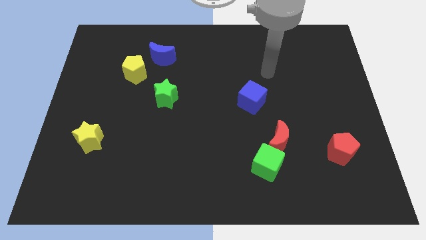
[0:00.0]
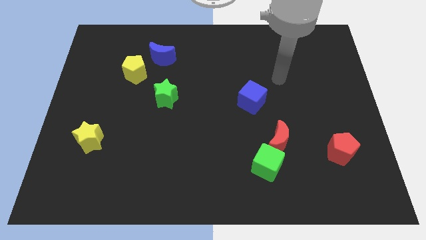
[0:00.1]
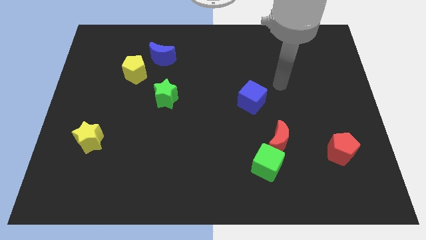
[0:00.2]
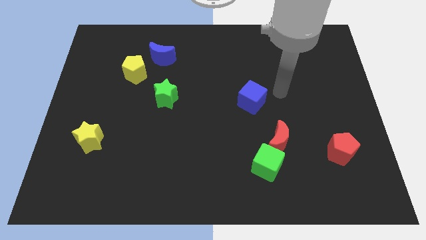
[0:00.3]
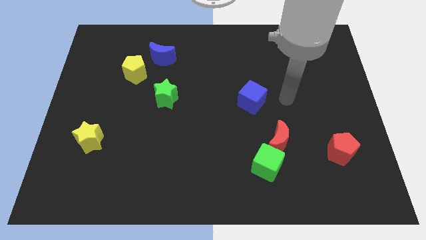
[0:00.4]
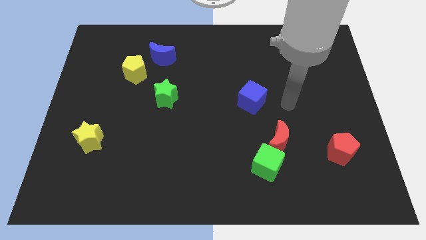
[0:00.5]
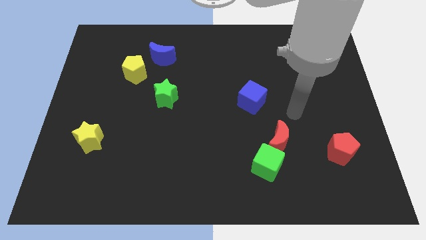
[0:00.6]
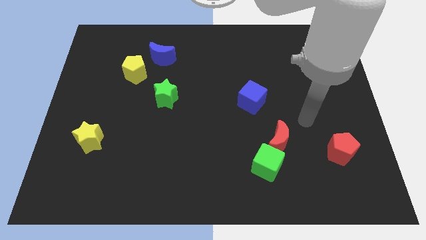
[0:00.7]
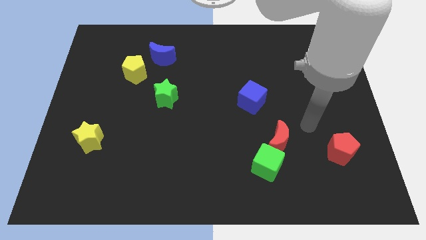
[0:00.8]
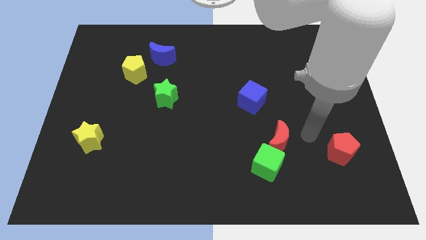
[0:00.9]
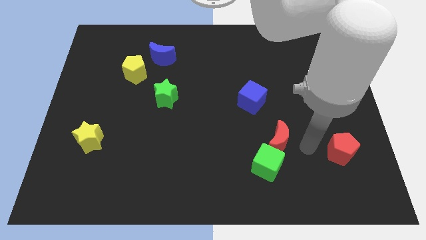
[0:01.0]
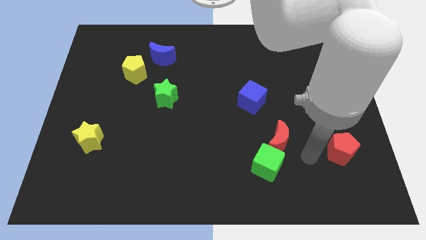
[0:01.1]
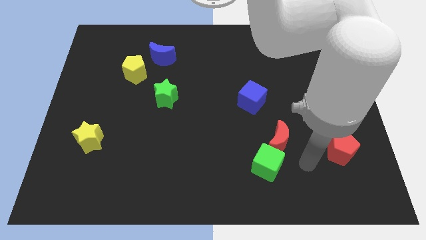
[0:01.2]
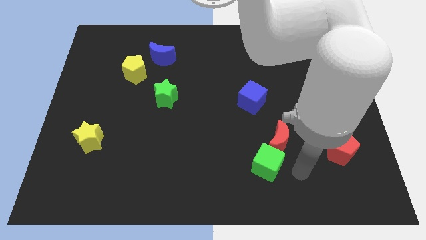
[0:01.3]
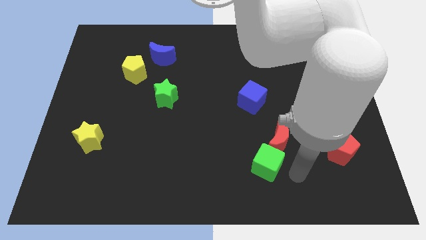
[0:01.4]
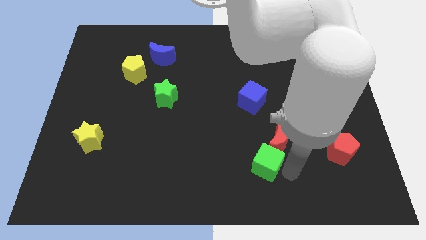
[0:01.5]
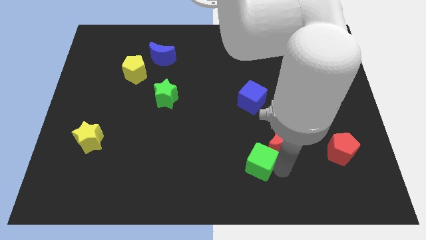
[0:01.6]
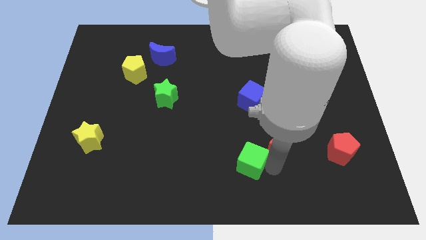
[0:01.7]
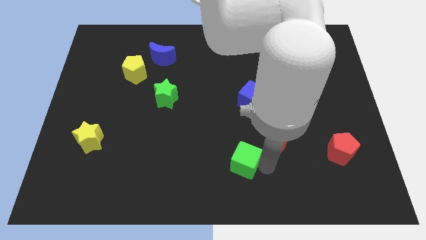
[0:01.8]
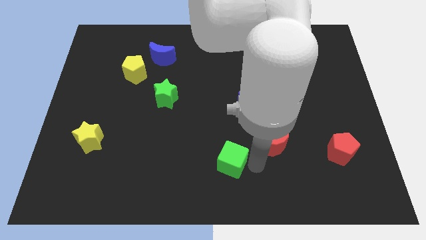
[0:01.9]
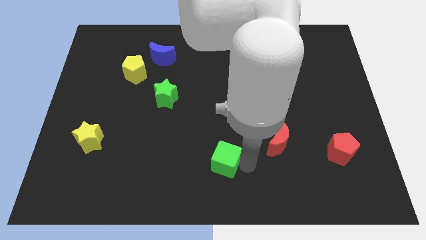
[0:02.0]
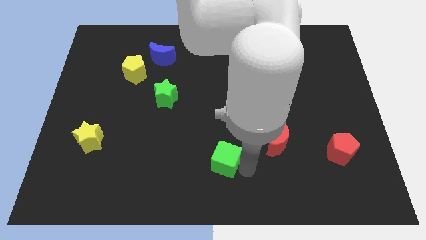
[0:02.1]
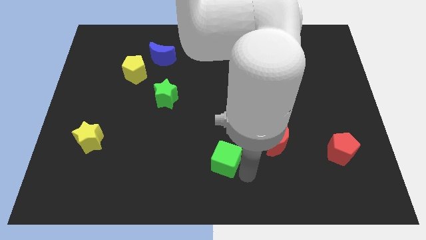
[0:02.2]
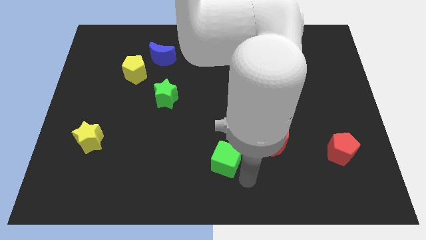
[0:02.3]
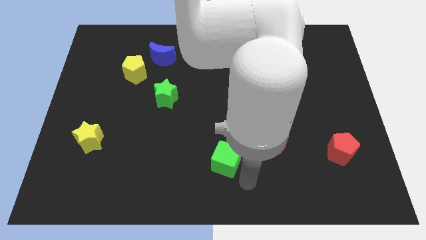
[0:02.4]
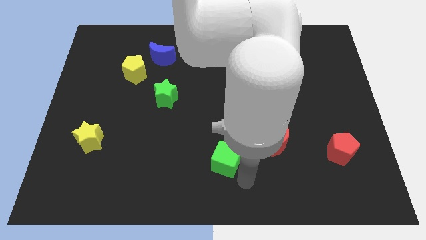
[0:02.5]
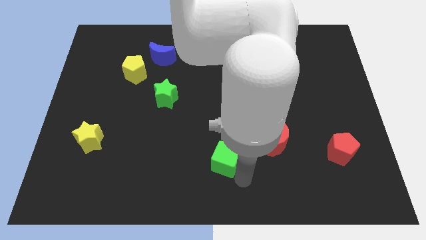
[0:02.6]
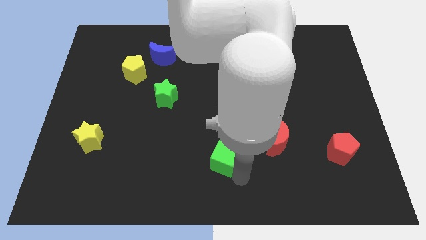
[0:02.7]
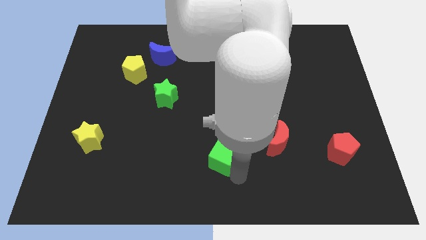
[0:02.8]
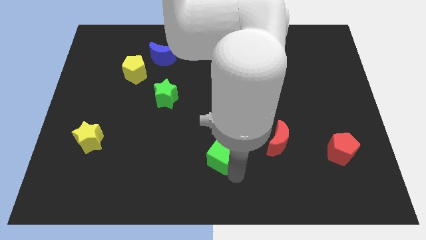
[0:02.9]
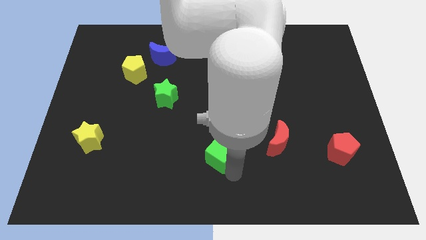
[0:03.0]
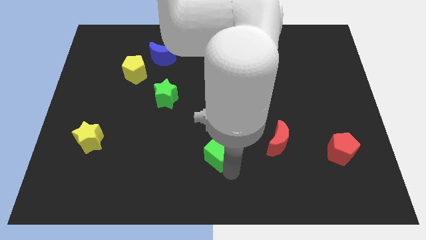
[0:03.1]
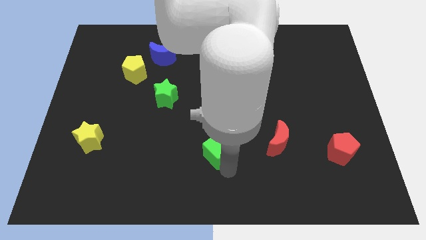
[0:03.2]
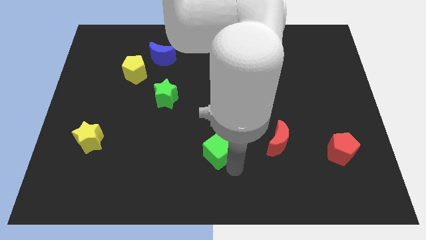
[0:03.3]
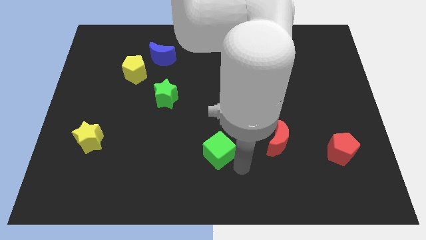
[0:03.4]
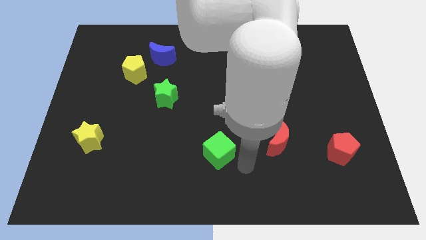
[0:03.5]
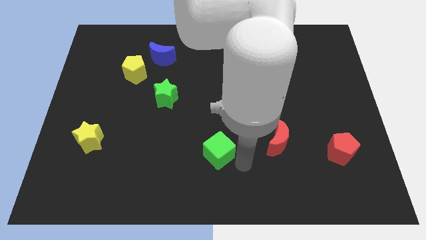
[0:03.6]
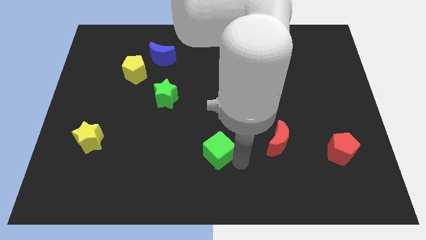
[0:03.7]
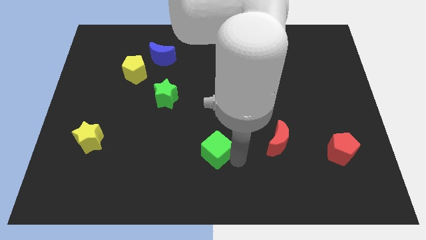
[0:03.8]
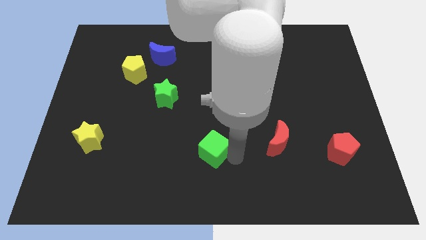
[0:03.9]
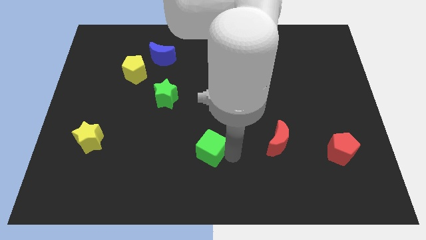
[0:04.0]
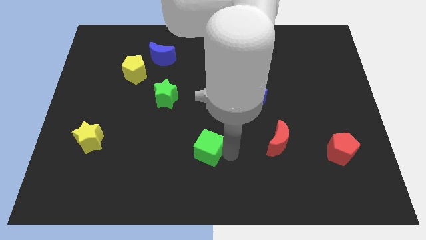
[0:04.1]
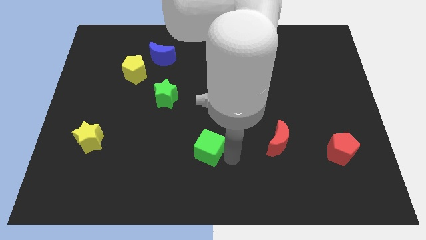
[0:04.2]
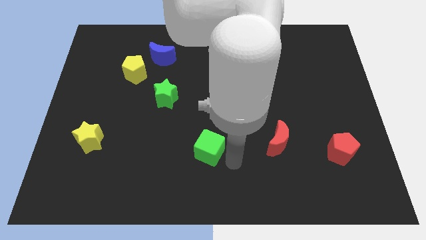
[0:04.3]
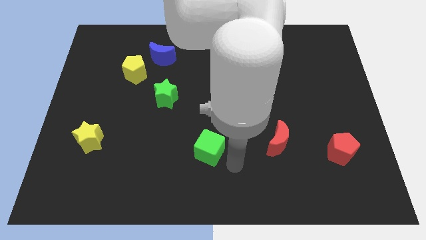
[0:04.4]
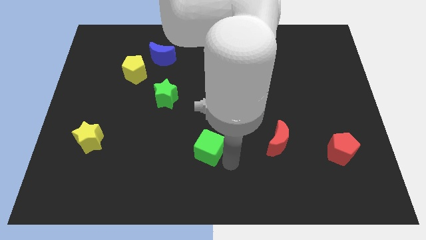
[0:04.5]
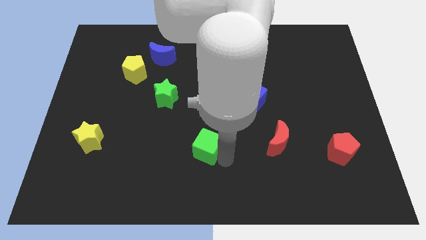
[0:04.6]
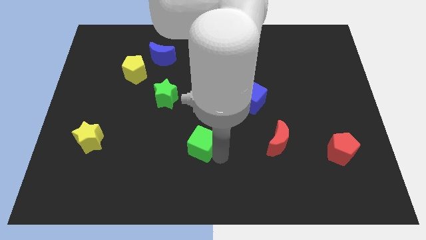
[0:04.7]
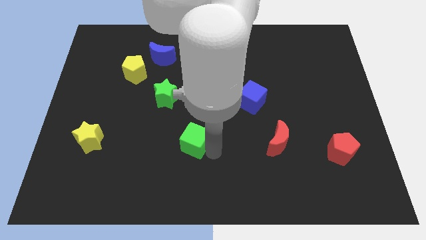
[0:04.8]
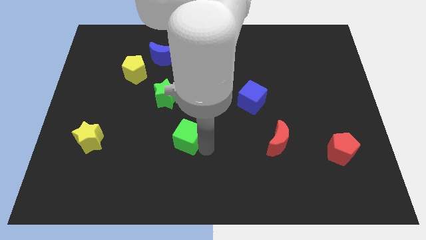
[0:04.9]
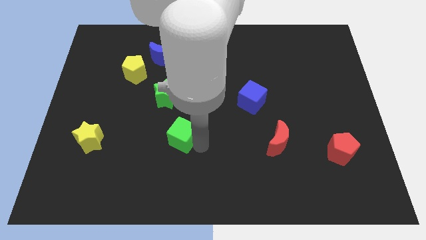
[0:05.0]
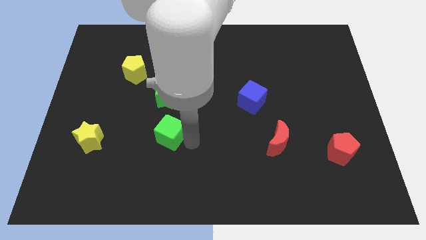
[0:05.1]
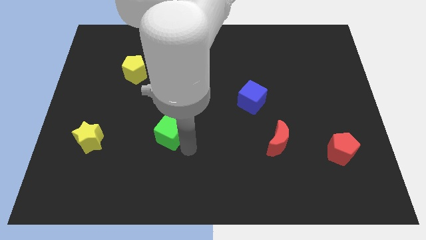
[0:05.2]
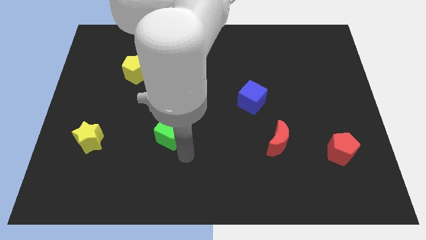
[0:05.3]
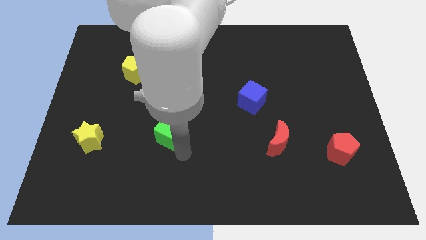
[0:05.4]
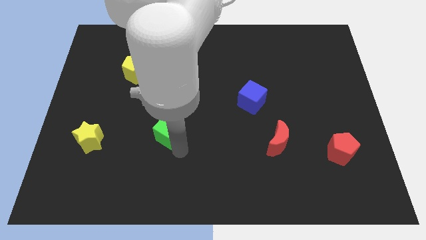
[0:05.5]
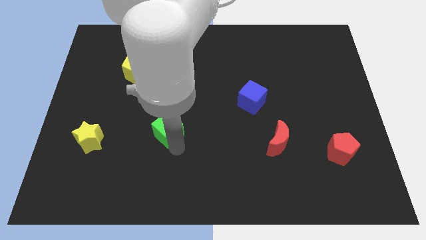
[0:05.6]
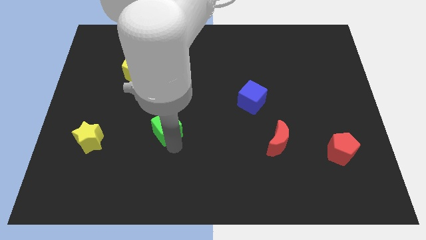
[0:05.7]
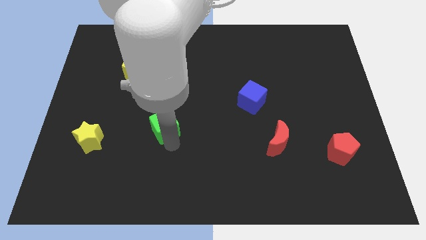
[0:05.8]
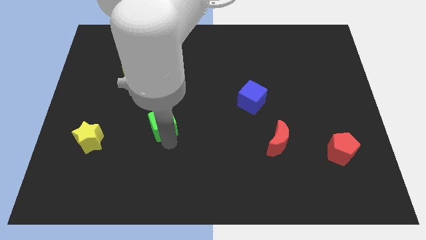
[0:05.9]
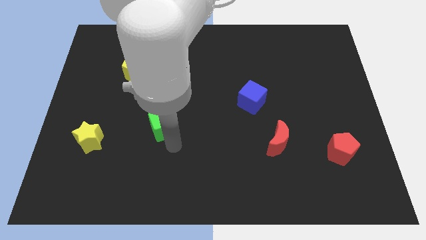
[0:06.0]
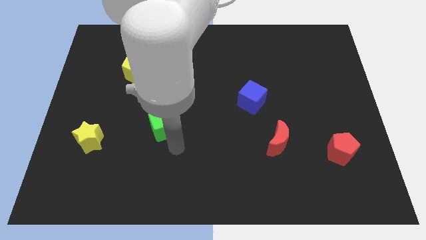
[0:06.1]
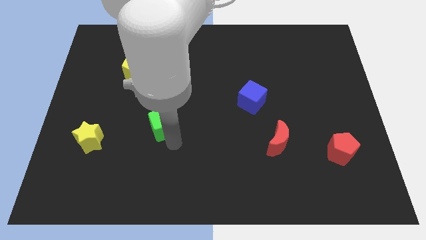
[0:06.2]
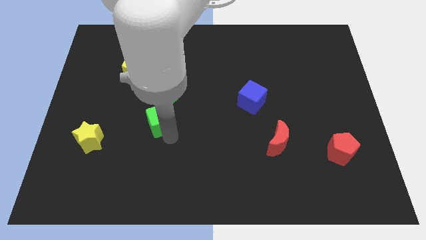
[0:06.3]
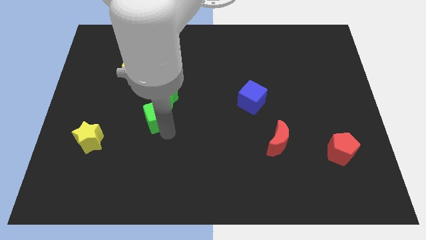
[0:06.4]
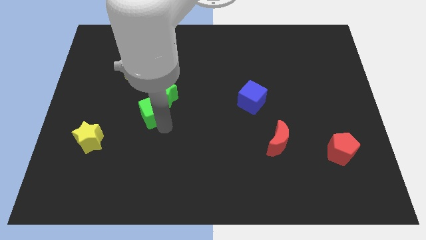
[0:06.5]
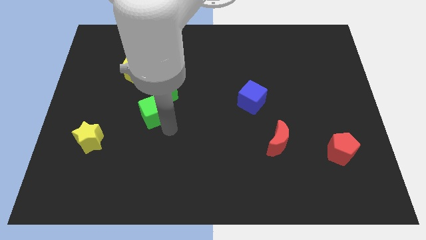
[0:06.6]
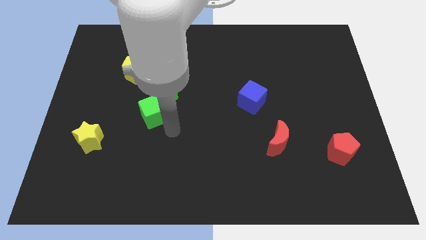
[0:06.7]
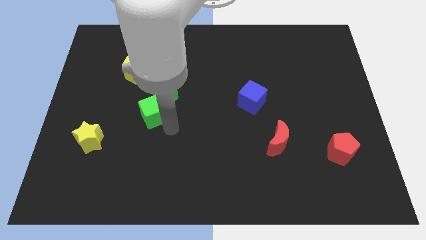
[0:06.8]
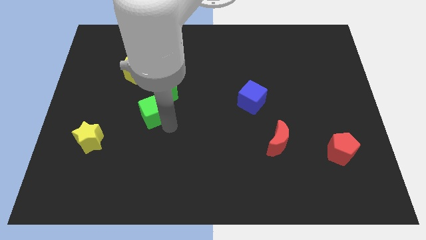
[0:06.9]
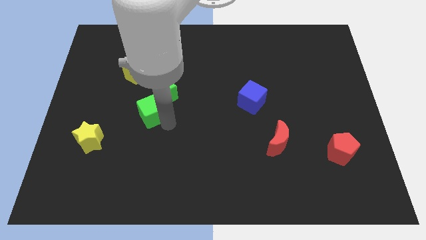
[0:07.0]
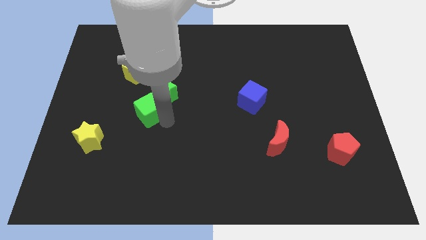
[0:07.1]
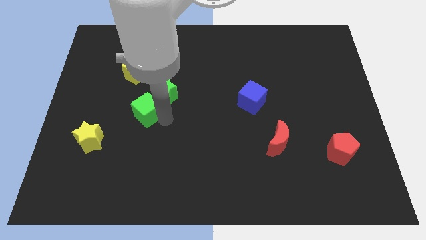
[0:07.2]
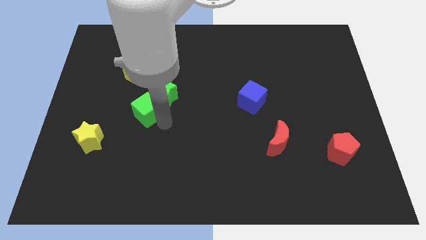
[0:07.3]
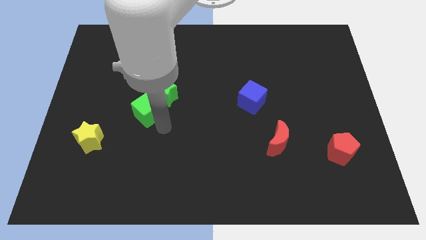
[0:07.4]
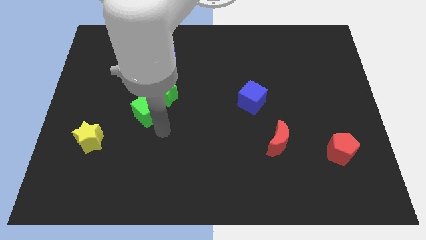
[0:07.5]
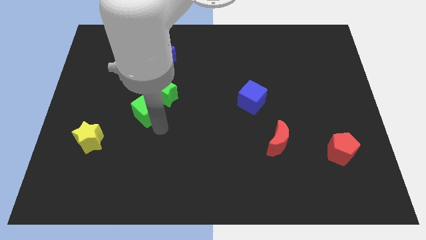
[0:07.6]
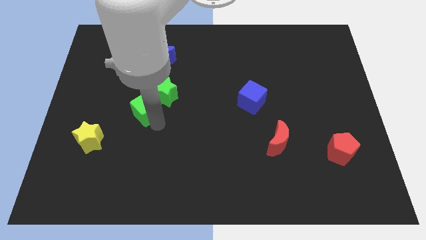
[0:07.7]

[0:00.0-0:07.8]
put the green cube to the left of the green star
